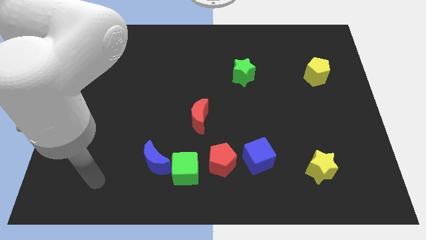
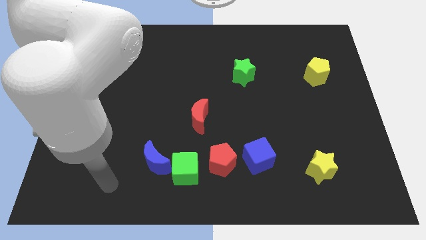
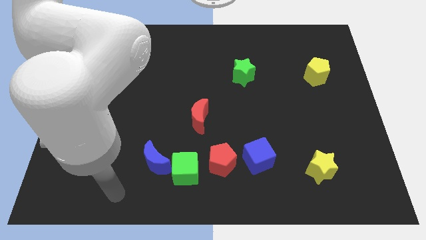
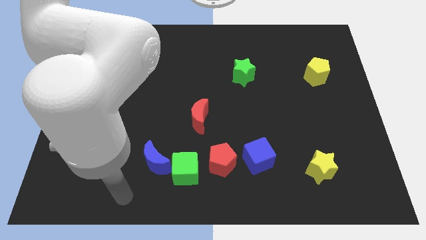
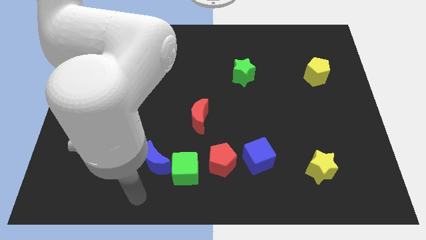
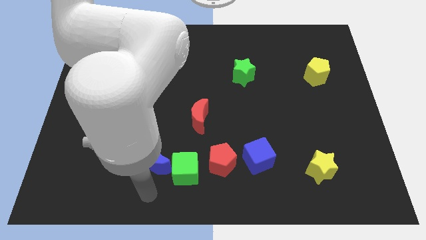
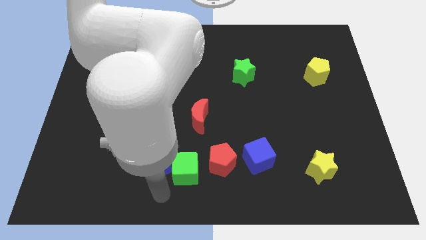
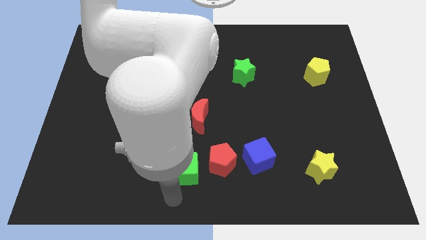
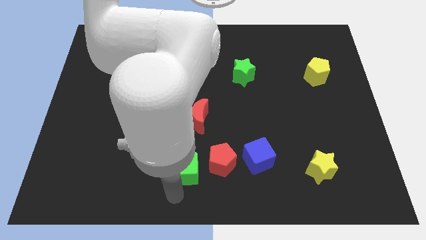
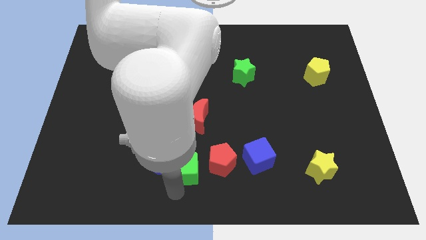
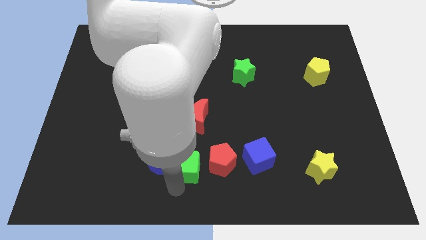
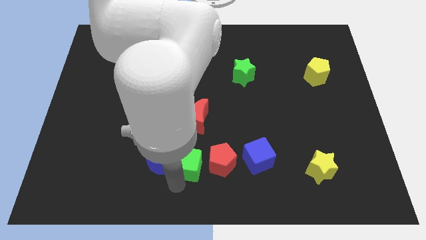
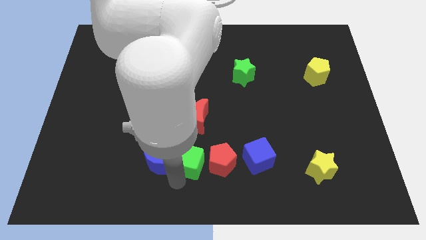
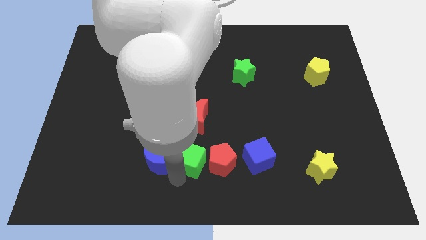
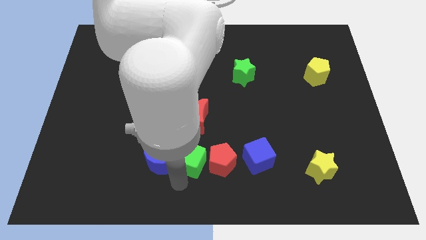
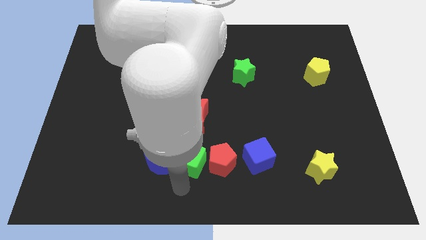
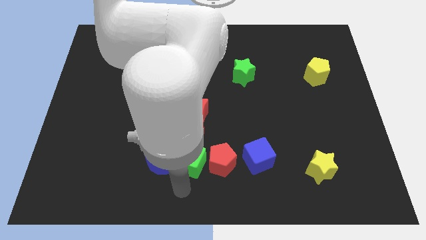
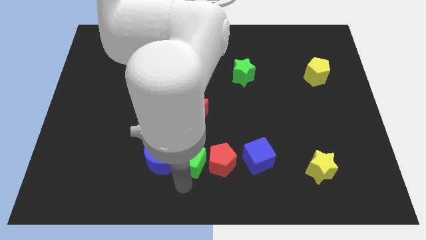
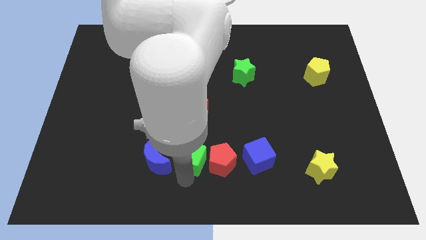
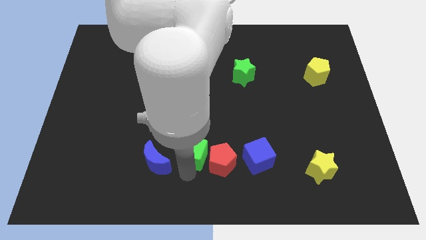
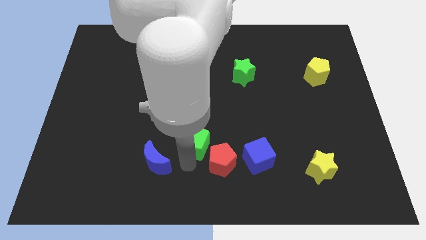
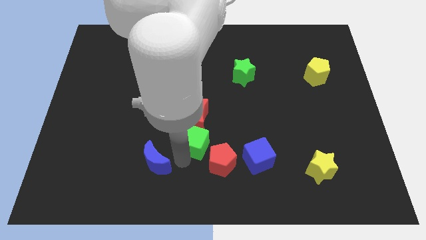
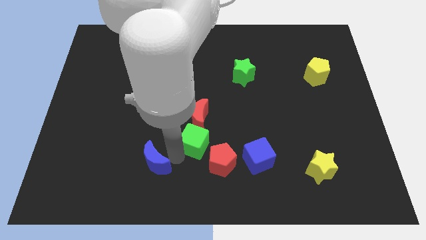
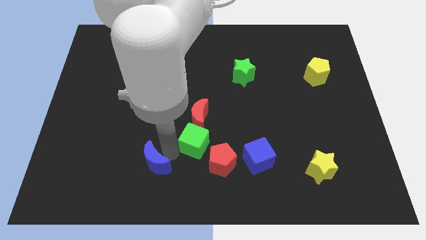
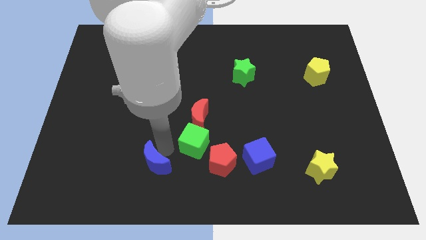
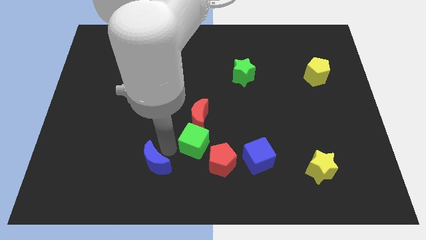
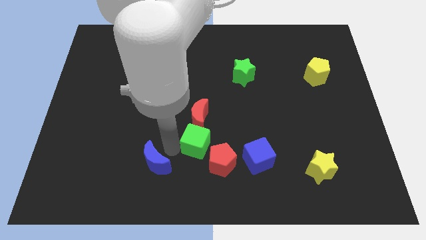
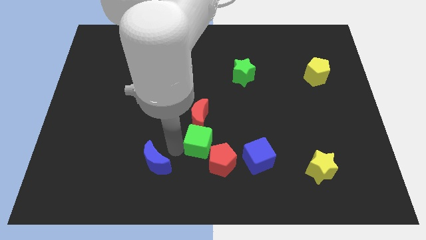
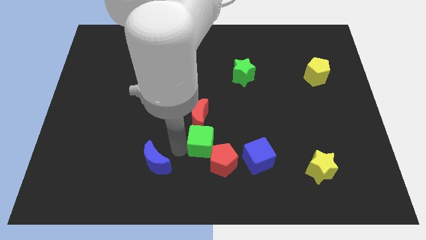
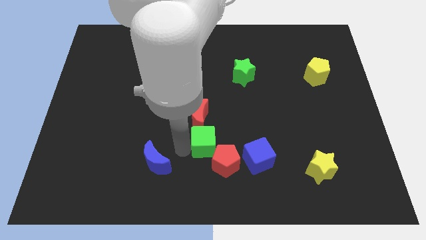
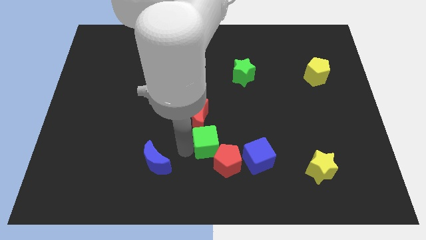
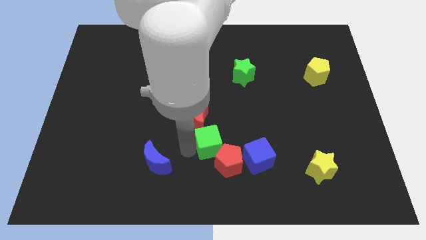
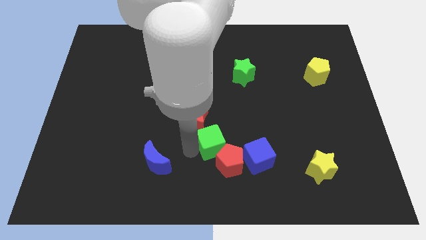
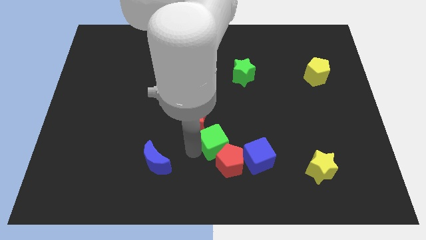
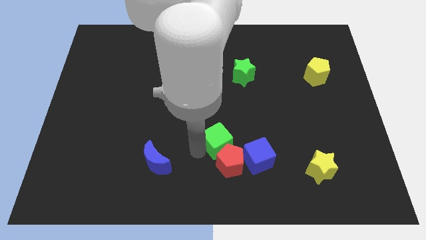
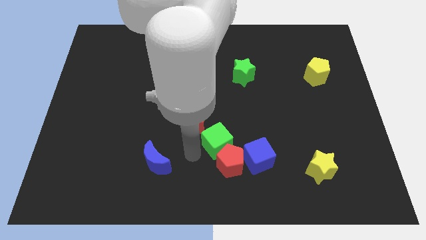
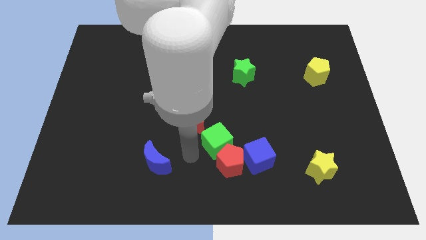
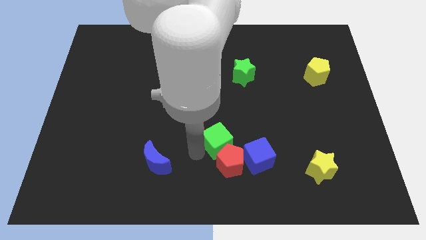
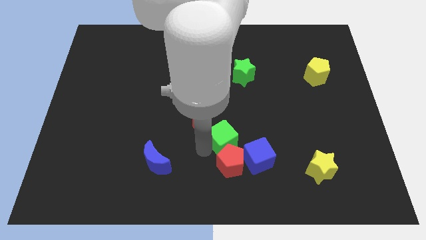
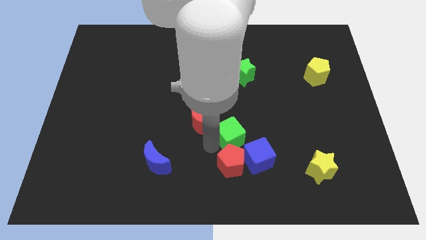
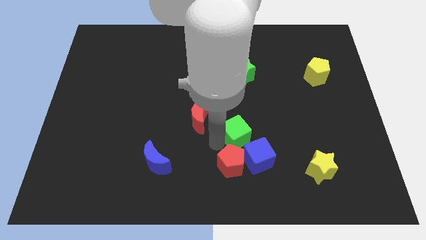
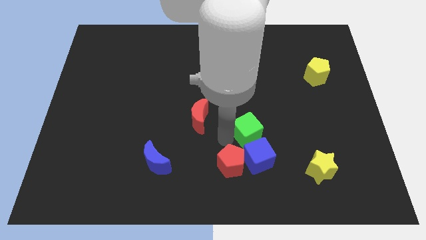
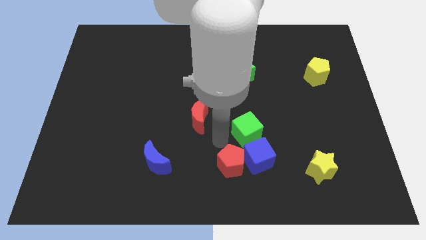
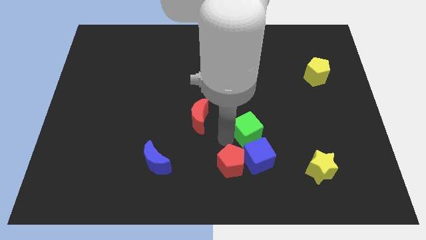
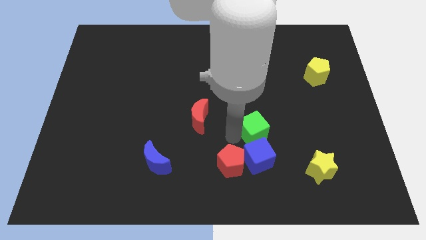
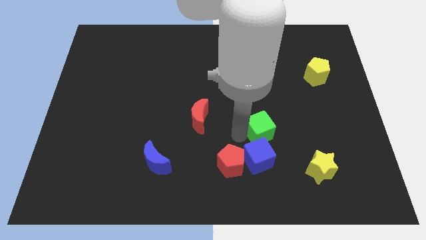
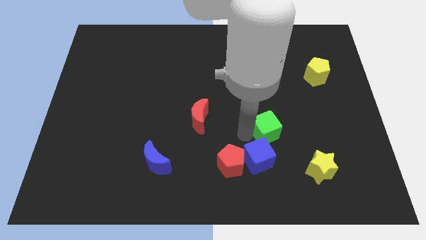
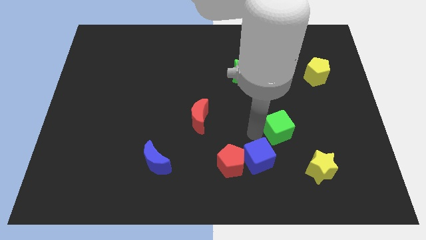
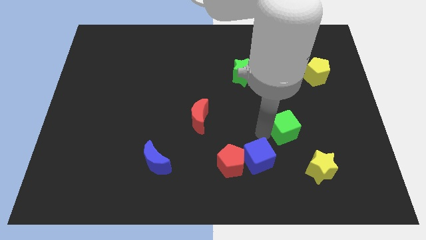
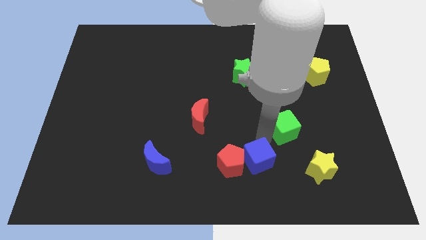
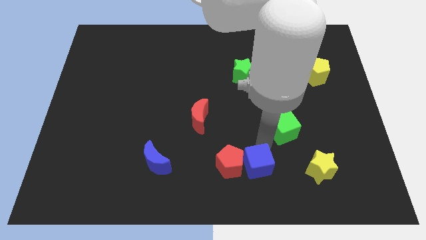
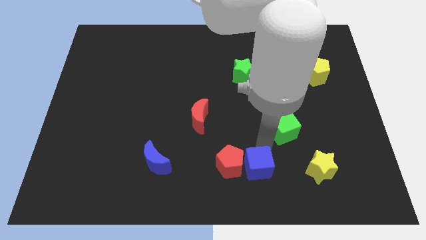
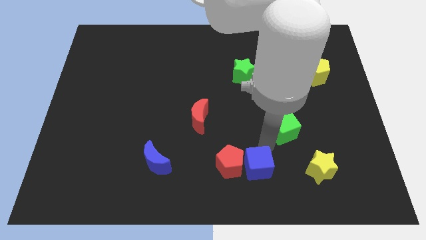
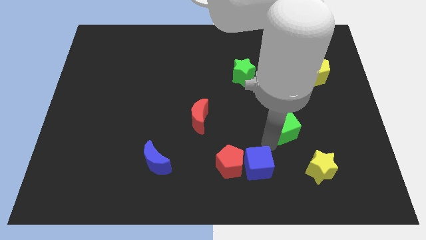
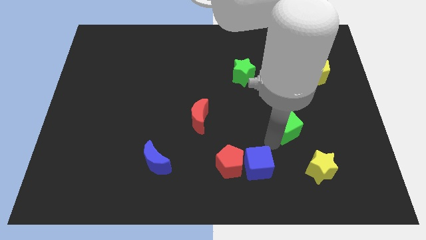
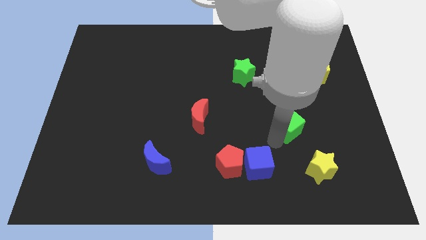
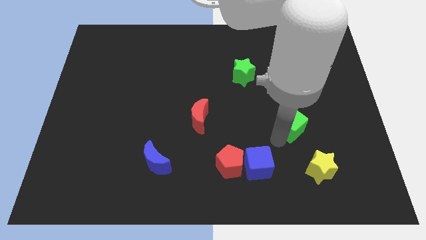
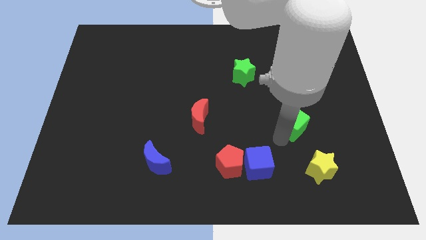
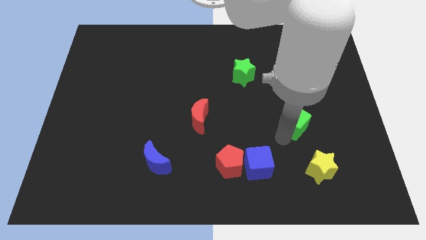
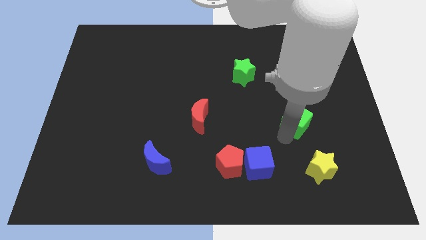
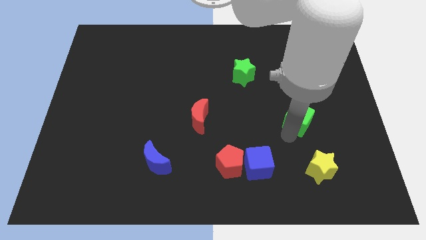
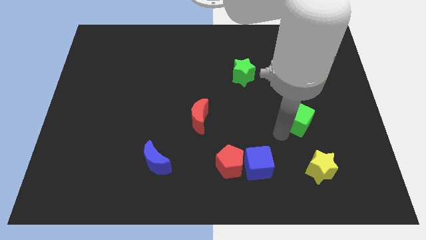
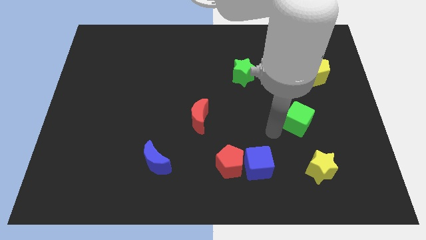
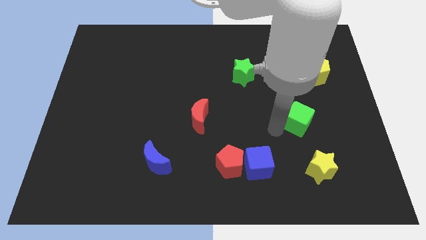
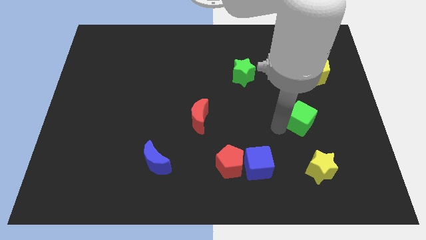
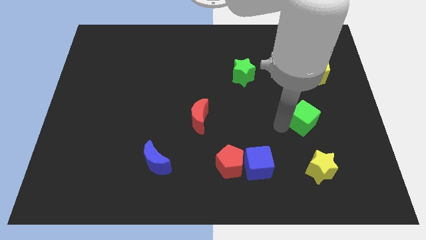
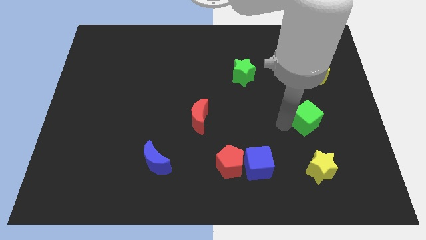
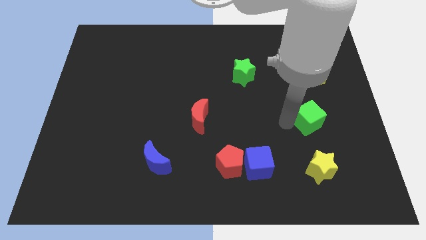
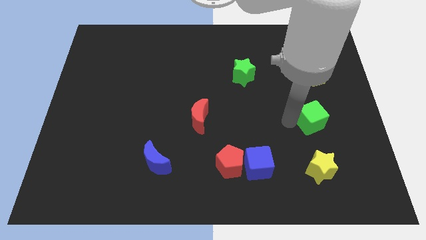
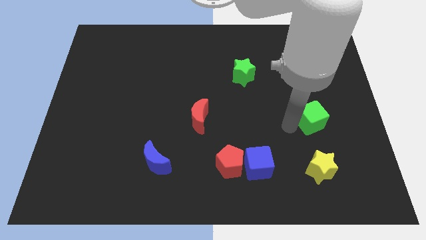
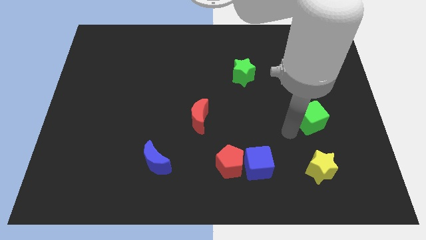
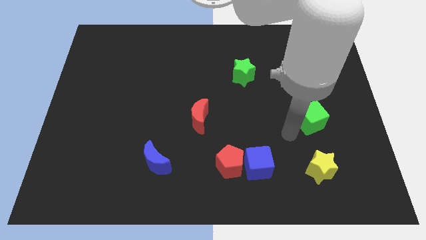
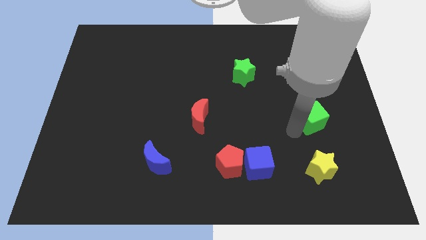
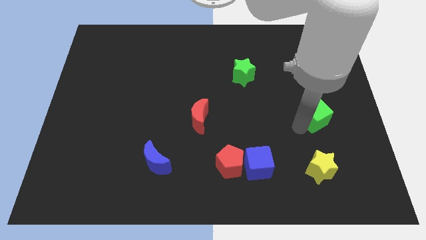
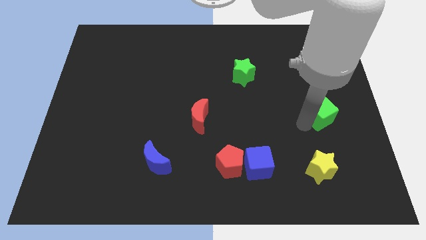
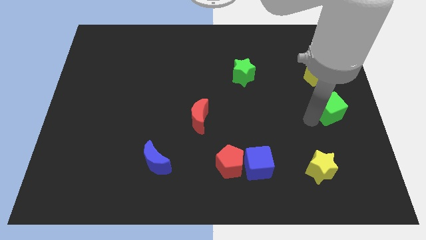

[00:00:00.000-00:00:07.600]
put the green cube to the center right

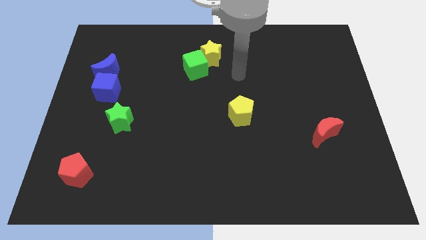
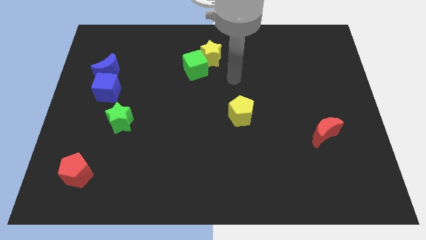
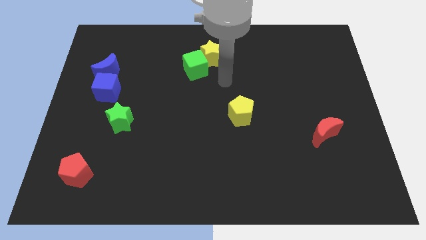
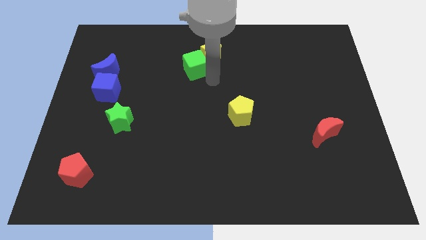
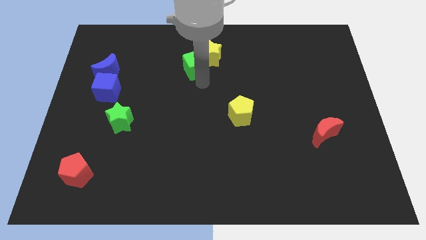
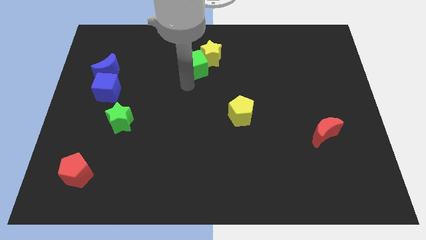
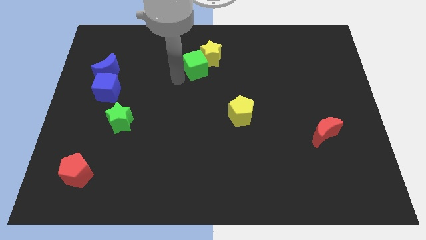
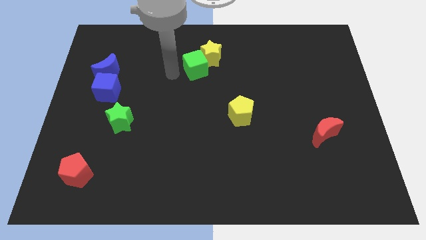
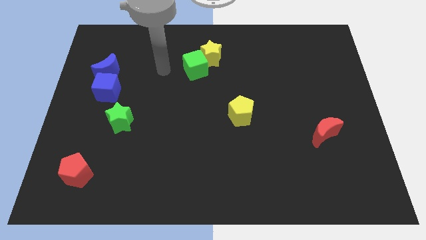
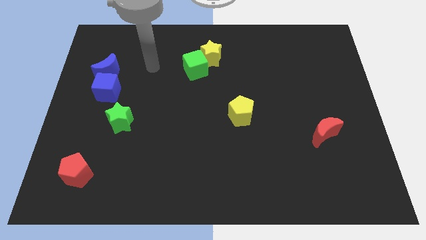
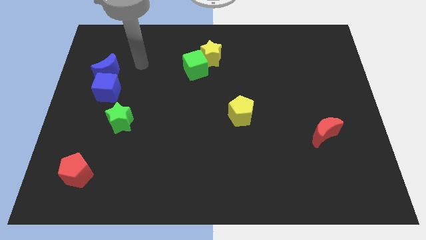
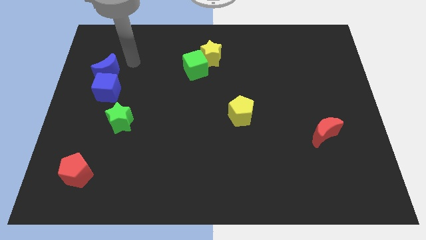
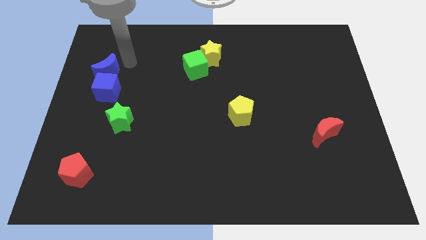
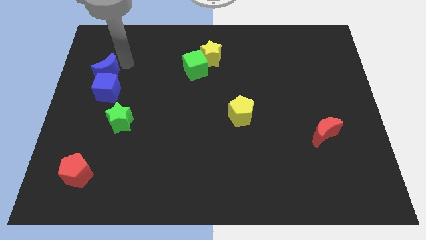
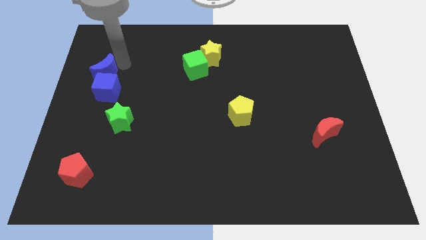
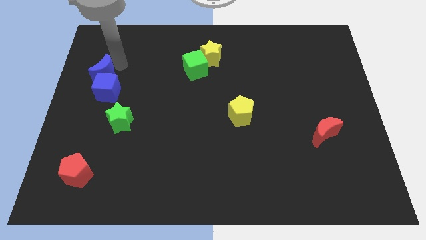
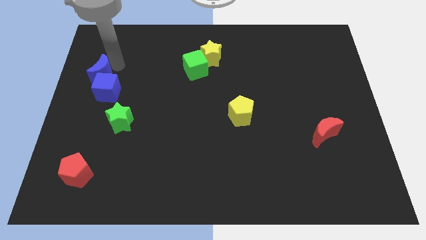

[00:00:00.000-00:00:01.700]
slide the blue moon to the left side of the board
